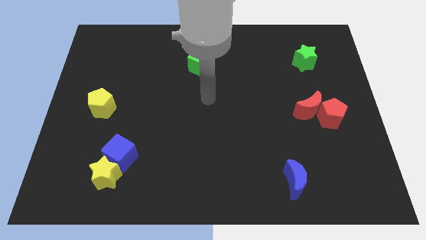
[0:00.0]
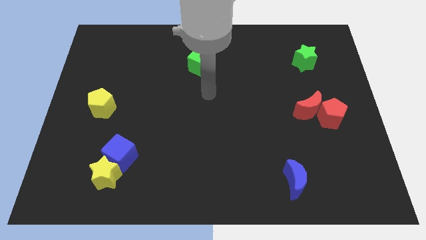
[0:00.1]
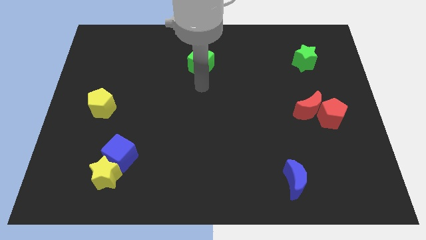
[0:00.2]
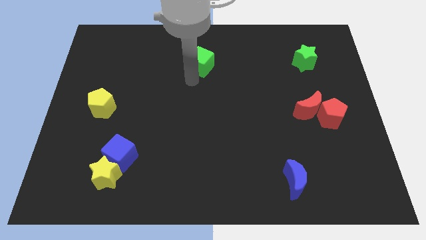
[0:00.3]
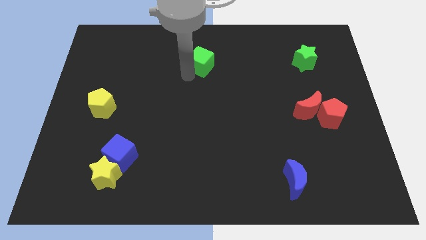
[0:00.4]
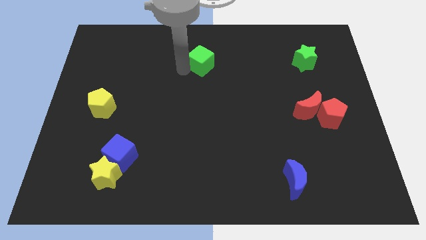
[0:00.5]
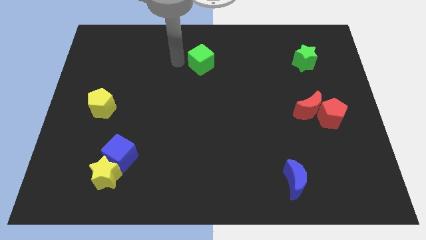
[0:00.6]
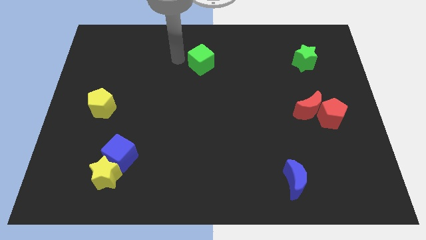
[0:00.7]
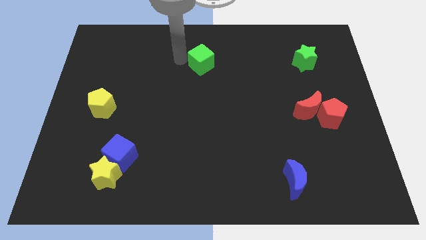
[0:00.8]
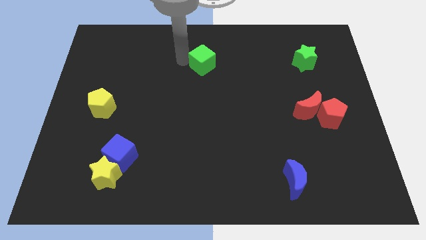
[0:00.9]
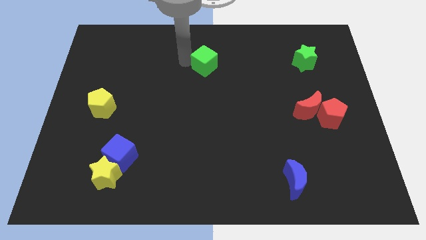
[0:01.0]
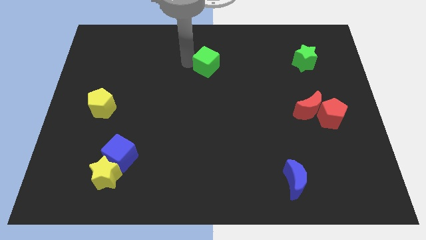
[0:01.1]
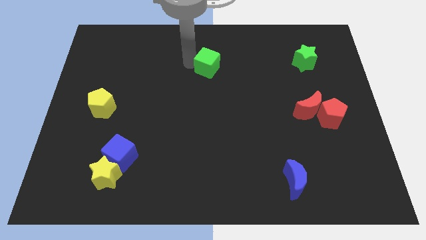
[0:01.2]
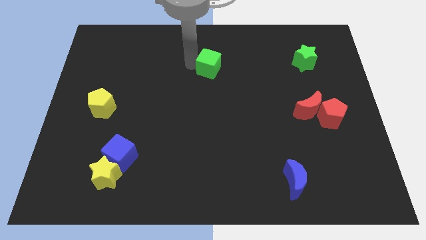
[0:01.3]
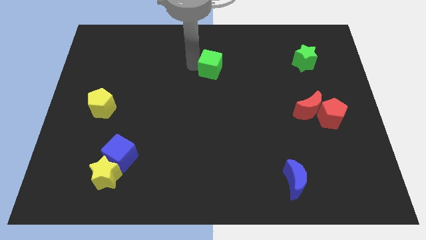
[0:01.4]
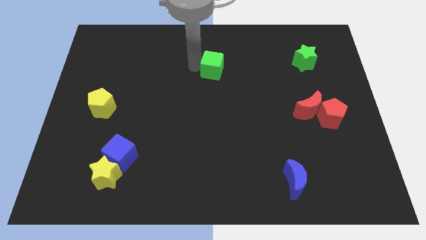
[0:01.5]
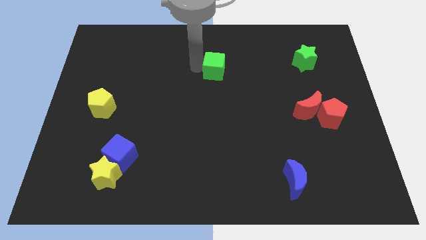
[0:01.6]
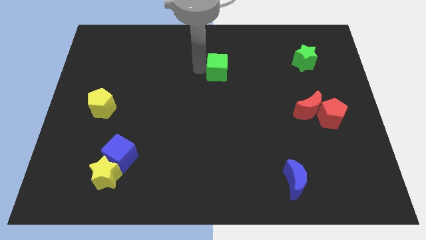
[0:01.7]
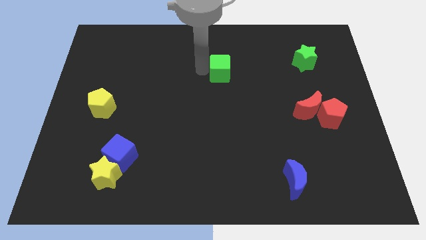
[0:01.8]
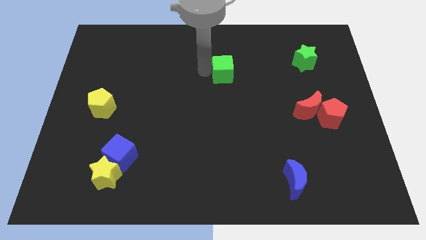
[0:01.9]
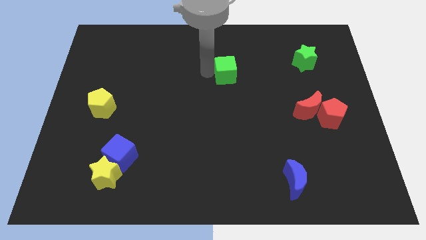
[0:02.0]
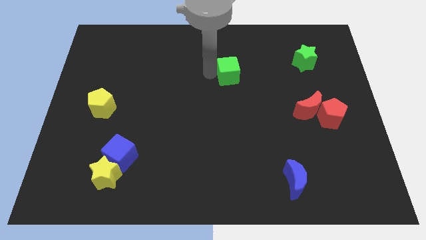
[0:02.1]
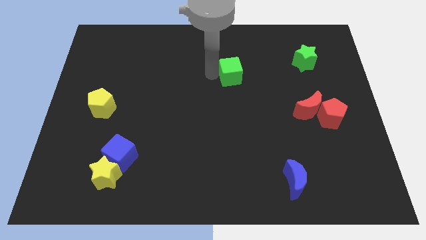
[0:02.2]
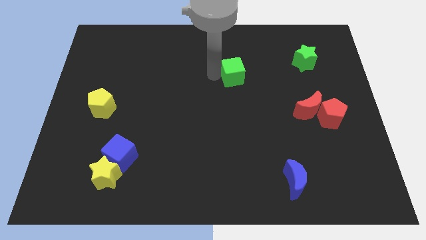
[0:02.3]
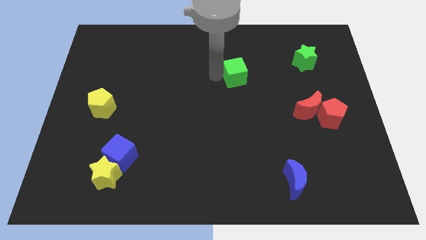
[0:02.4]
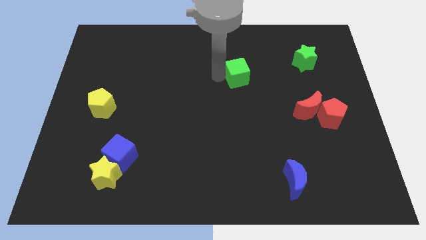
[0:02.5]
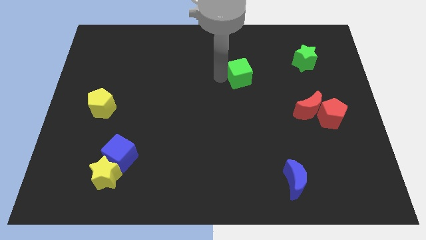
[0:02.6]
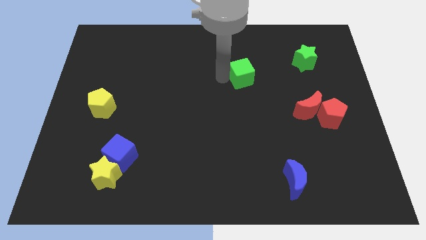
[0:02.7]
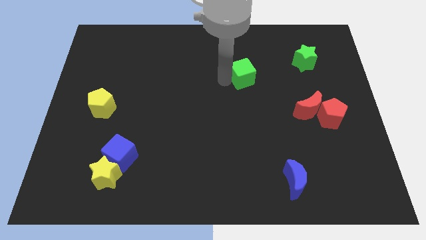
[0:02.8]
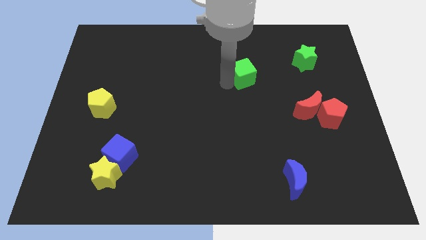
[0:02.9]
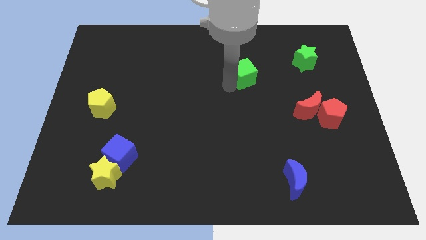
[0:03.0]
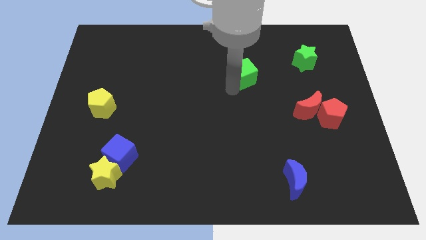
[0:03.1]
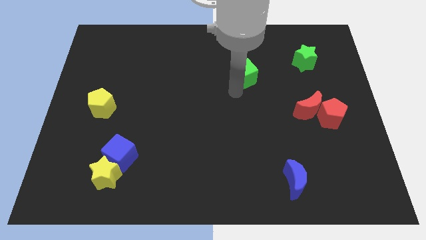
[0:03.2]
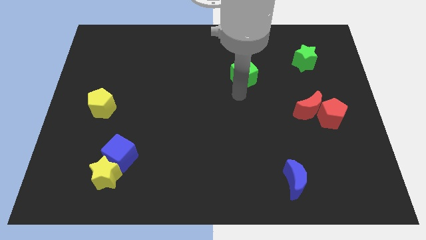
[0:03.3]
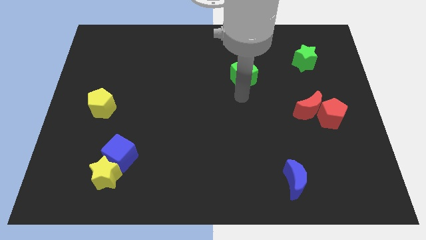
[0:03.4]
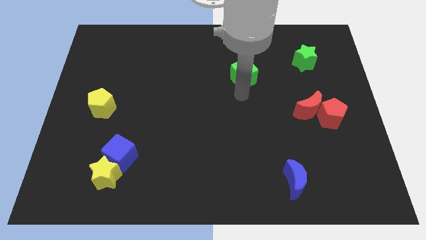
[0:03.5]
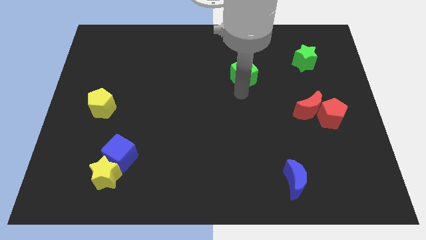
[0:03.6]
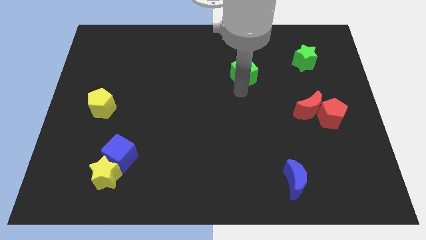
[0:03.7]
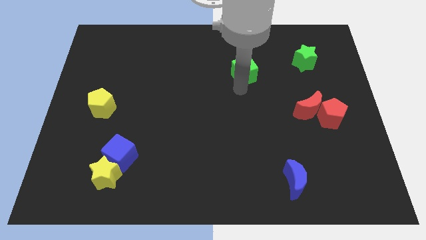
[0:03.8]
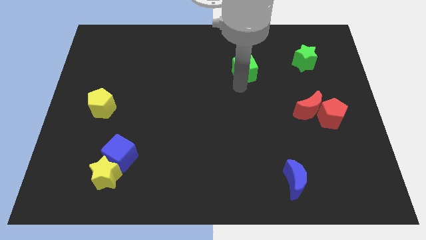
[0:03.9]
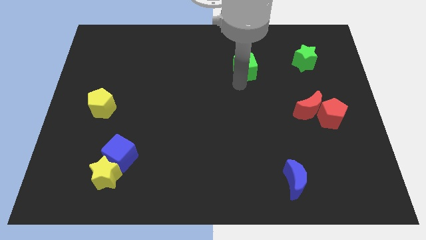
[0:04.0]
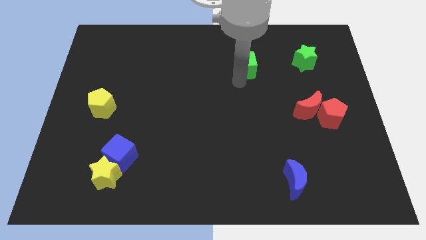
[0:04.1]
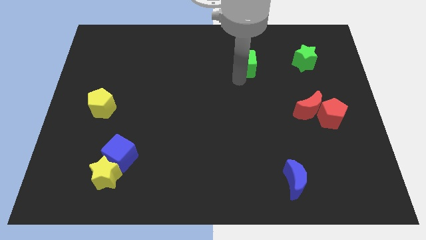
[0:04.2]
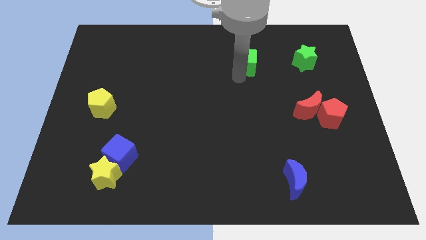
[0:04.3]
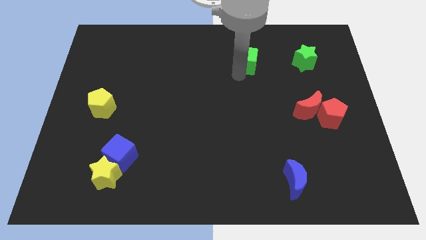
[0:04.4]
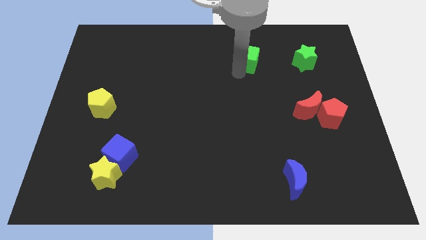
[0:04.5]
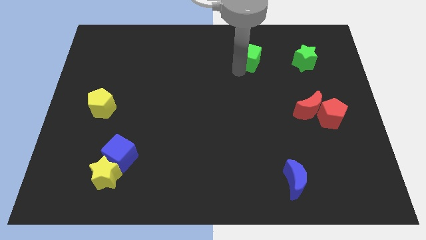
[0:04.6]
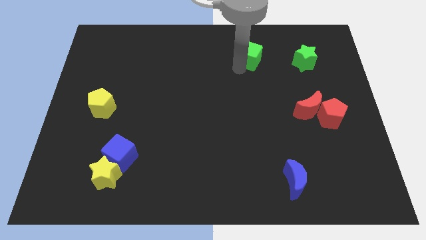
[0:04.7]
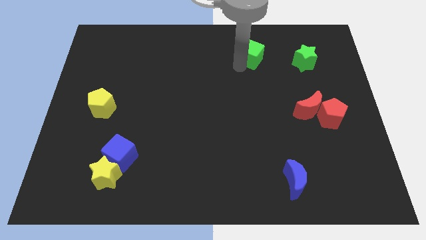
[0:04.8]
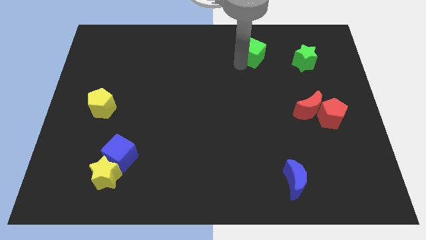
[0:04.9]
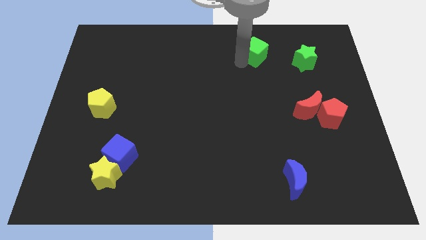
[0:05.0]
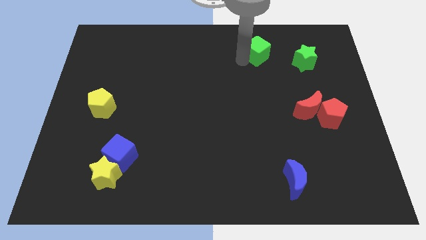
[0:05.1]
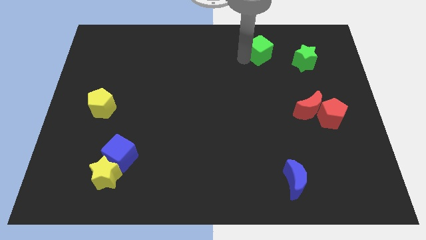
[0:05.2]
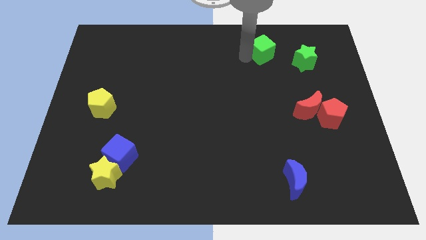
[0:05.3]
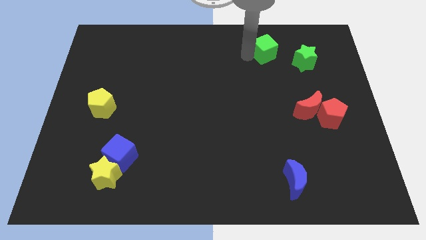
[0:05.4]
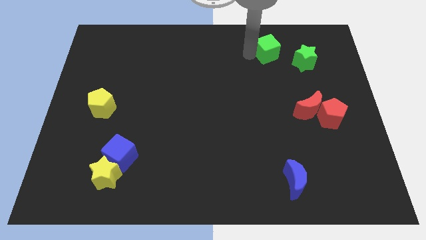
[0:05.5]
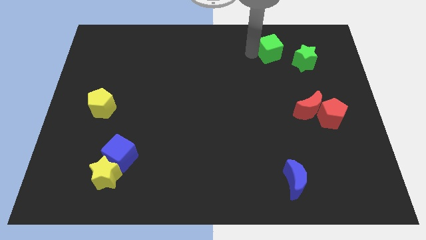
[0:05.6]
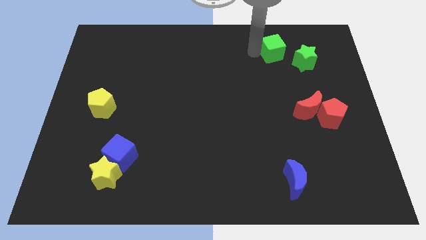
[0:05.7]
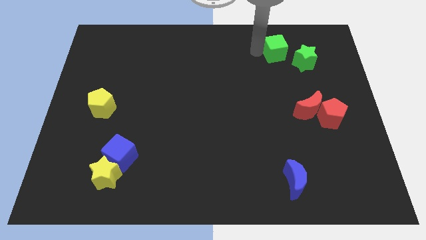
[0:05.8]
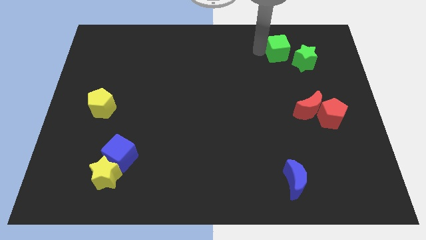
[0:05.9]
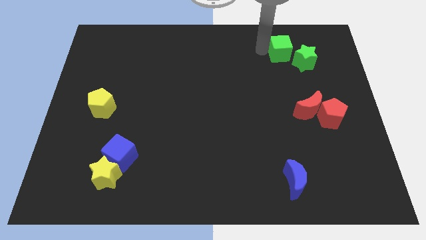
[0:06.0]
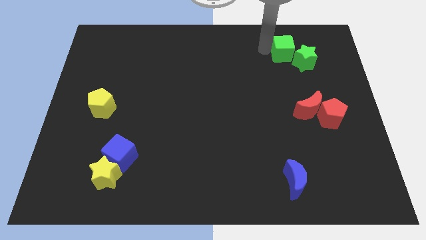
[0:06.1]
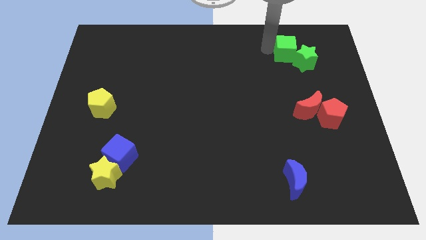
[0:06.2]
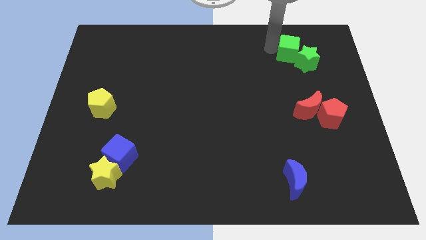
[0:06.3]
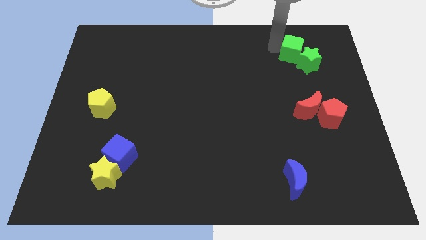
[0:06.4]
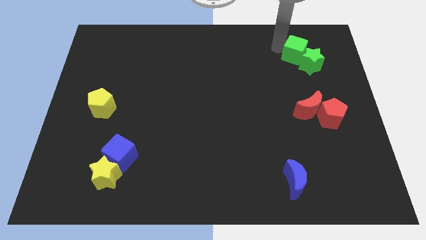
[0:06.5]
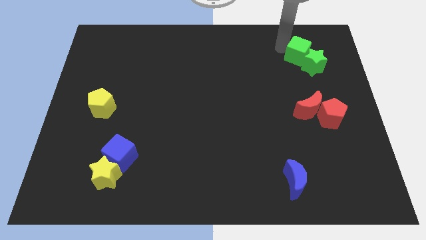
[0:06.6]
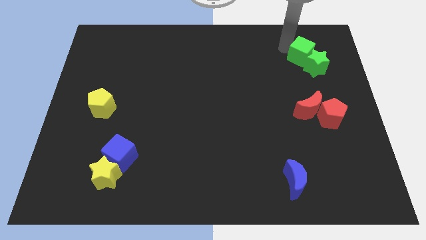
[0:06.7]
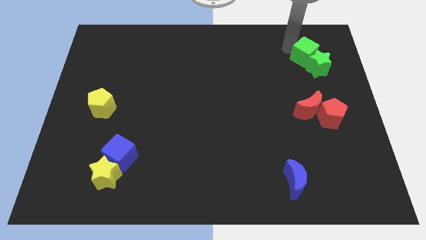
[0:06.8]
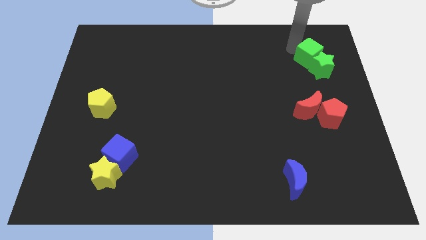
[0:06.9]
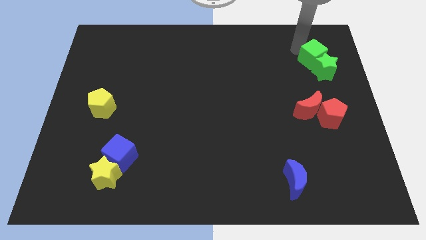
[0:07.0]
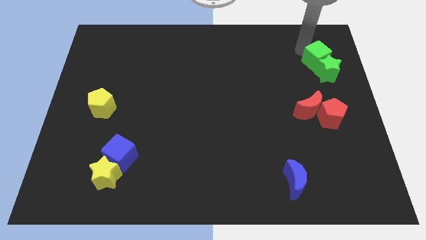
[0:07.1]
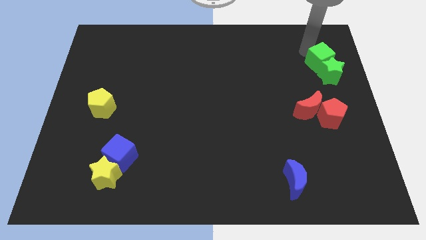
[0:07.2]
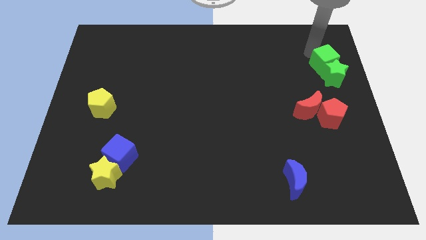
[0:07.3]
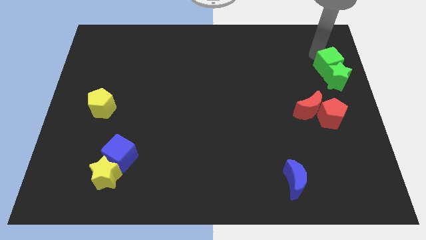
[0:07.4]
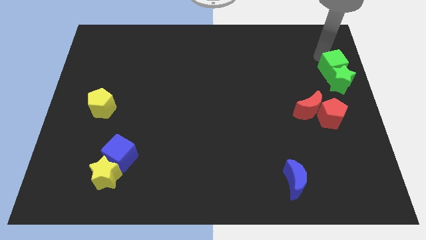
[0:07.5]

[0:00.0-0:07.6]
push the green cube to the right side of the board
